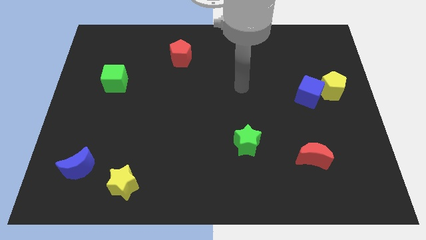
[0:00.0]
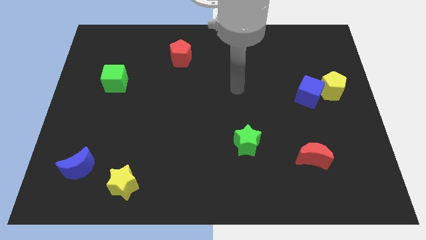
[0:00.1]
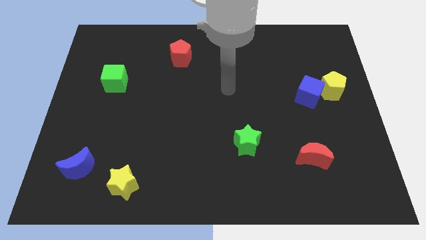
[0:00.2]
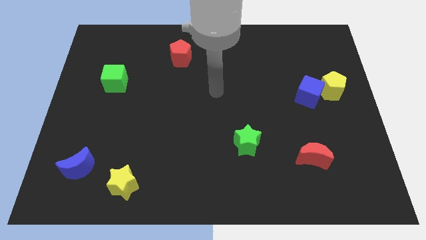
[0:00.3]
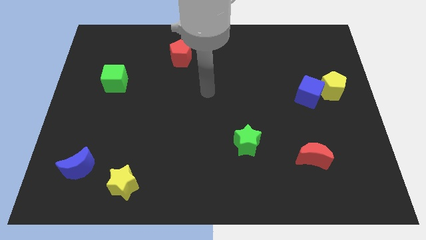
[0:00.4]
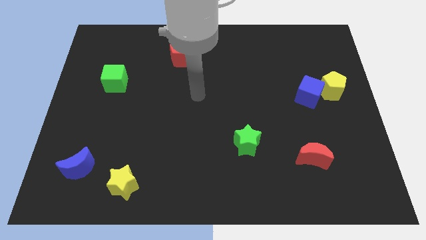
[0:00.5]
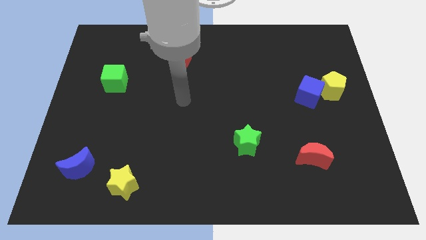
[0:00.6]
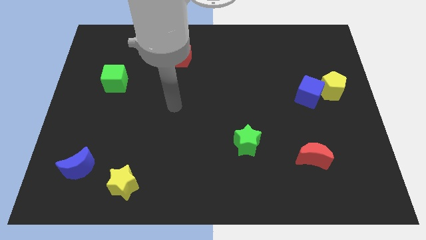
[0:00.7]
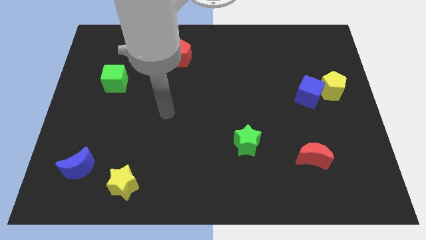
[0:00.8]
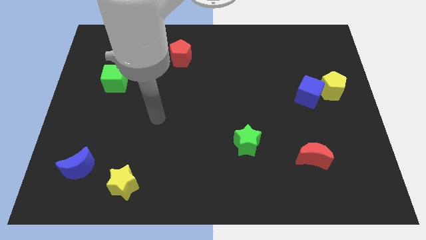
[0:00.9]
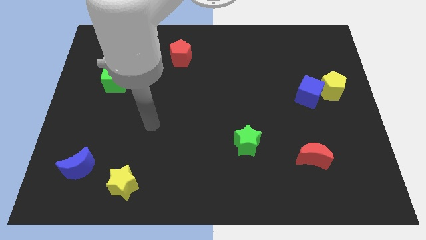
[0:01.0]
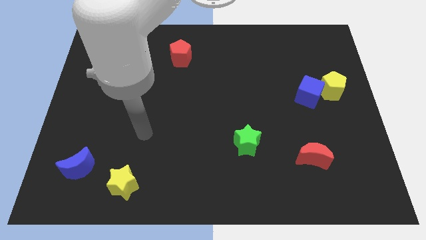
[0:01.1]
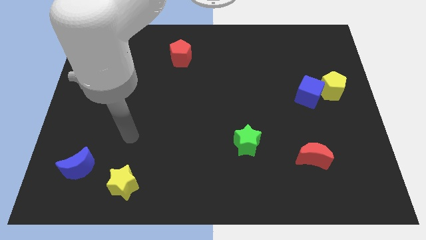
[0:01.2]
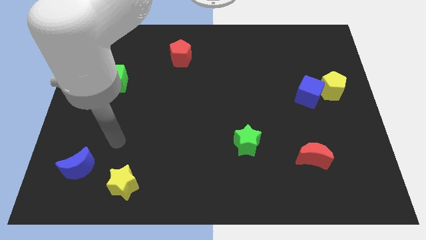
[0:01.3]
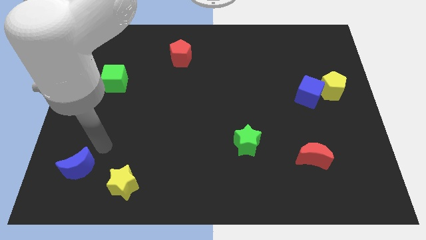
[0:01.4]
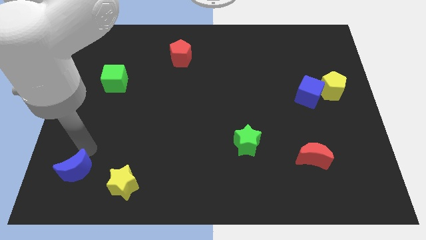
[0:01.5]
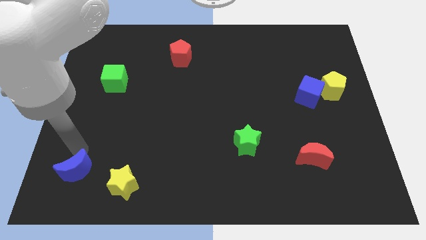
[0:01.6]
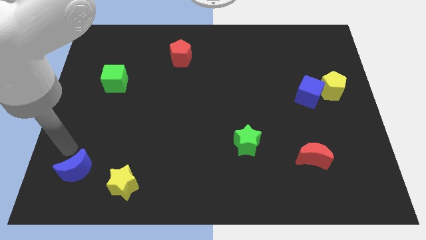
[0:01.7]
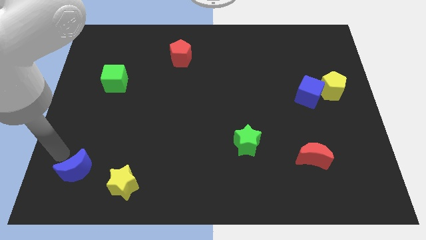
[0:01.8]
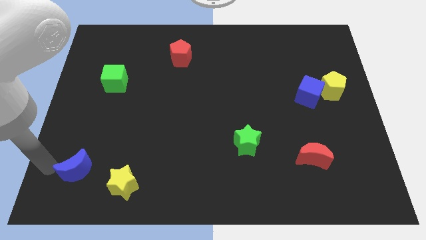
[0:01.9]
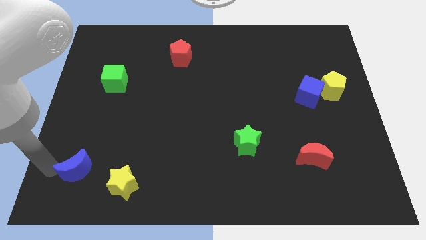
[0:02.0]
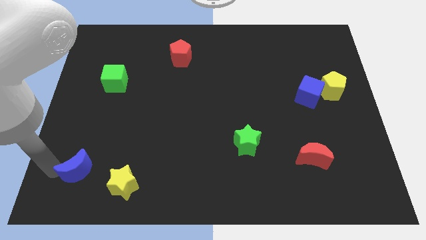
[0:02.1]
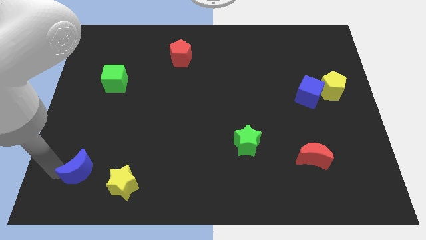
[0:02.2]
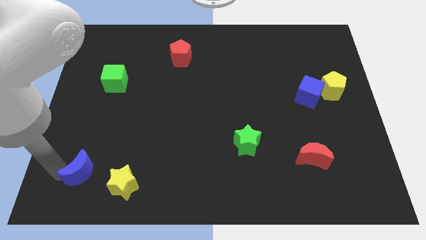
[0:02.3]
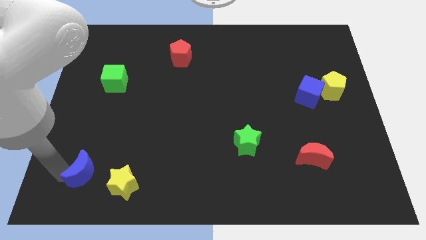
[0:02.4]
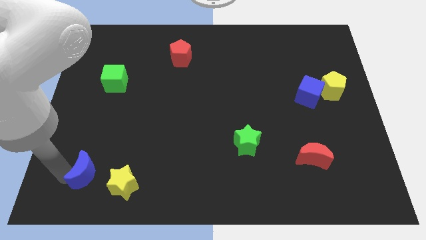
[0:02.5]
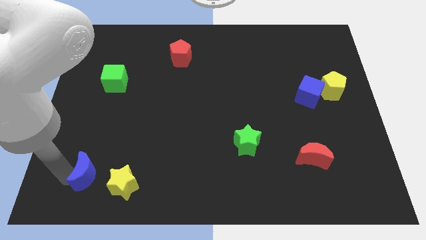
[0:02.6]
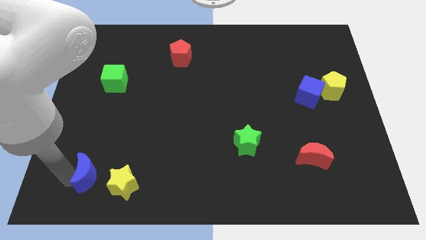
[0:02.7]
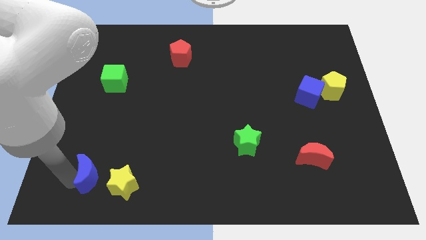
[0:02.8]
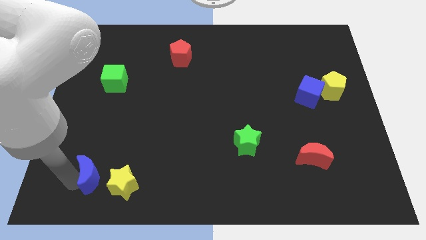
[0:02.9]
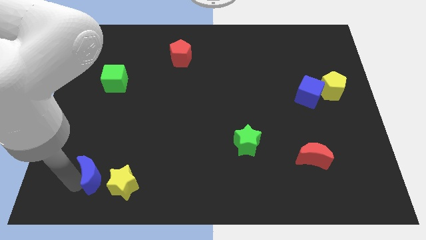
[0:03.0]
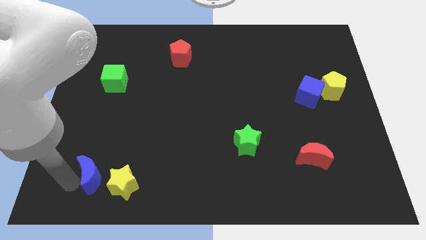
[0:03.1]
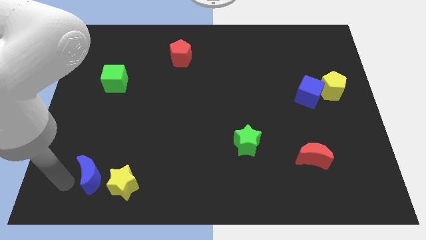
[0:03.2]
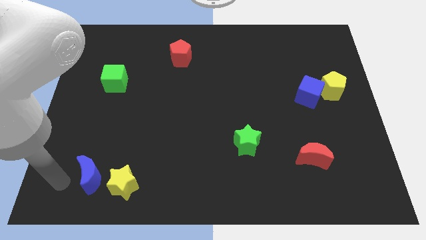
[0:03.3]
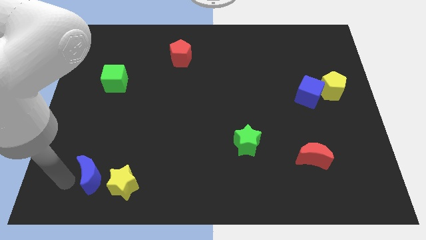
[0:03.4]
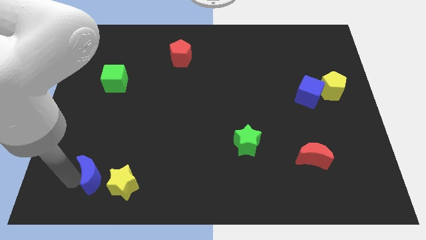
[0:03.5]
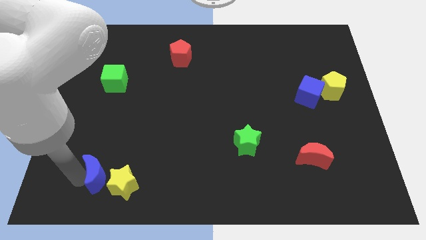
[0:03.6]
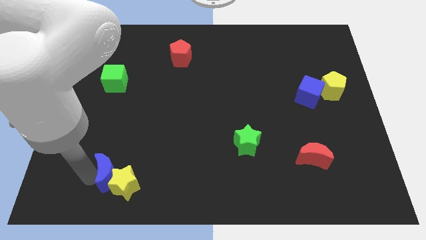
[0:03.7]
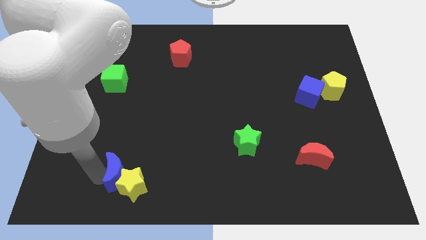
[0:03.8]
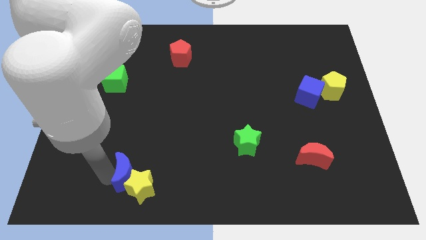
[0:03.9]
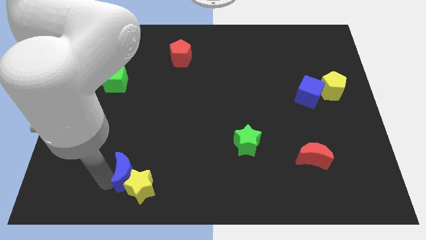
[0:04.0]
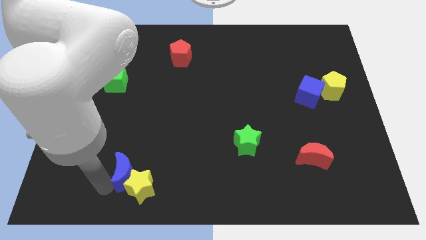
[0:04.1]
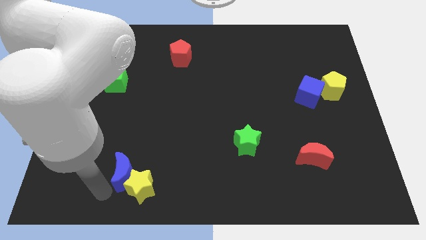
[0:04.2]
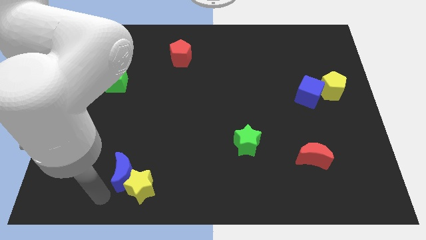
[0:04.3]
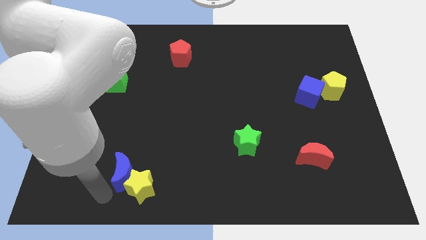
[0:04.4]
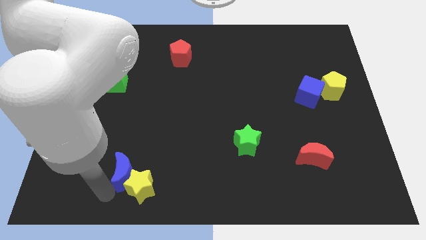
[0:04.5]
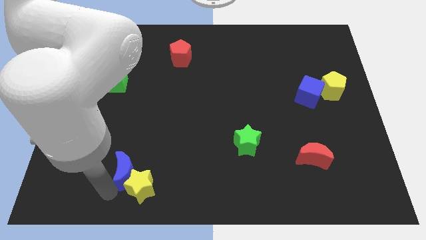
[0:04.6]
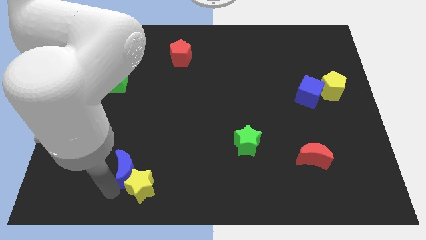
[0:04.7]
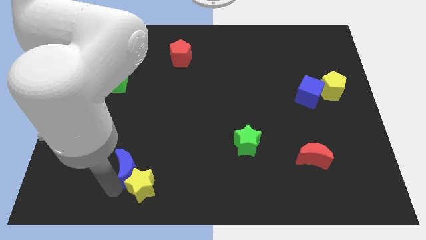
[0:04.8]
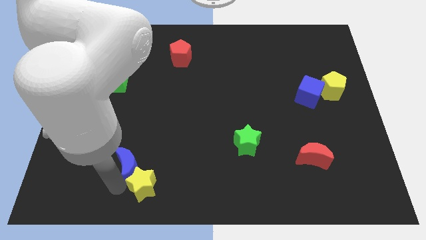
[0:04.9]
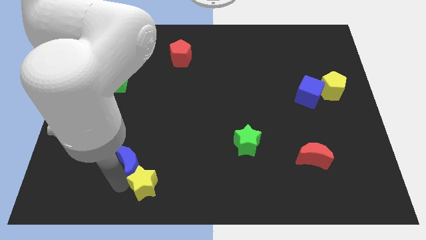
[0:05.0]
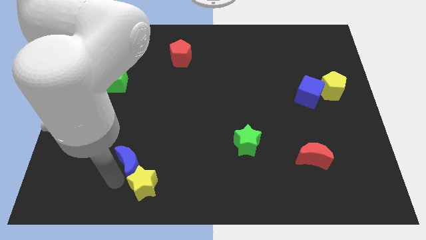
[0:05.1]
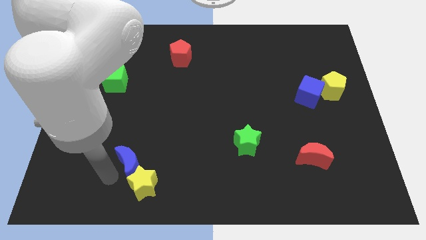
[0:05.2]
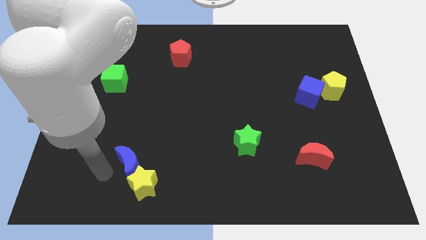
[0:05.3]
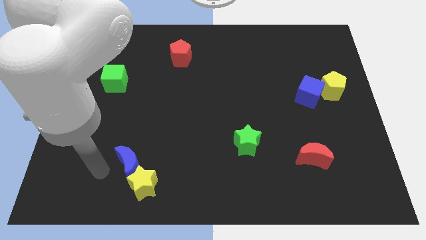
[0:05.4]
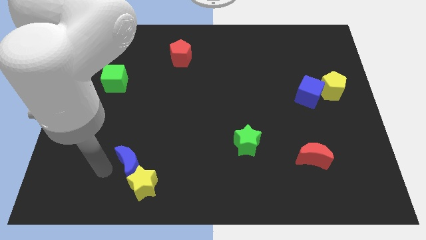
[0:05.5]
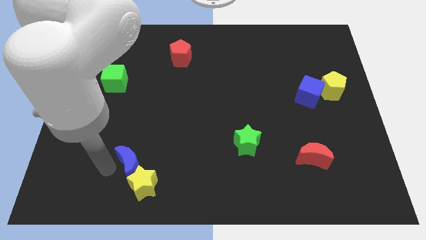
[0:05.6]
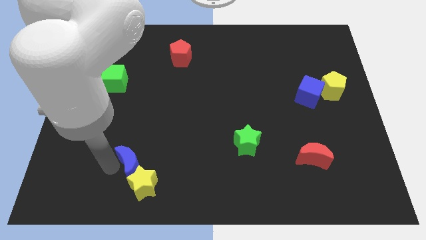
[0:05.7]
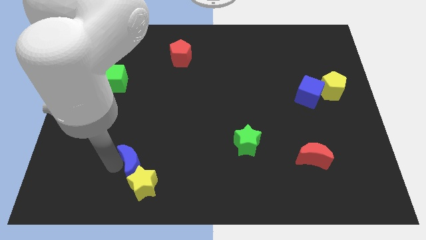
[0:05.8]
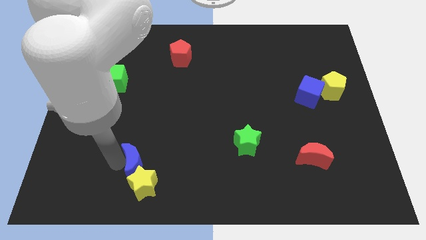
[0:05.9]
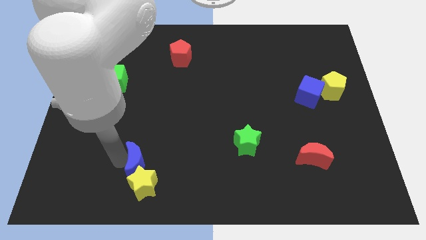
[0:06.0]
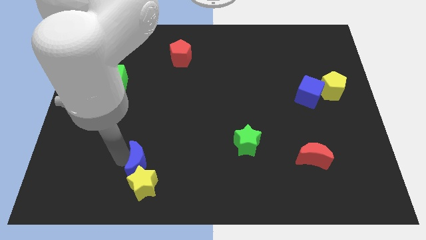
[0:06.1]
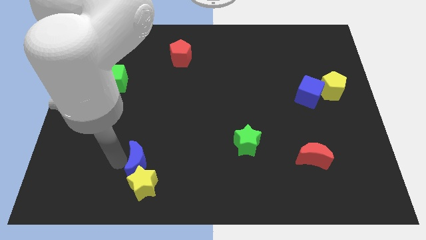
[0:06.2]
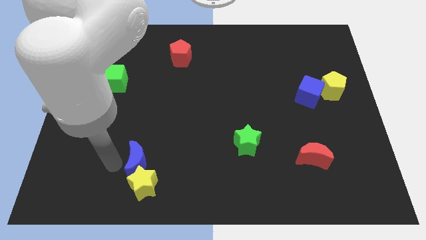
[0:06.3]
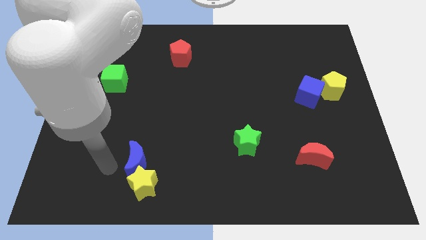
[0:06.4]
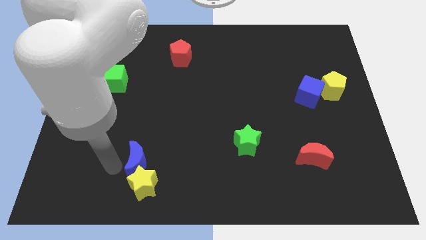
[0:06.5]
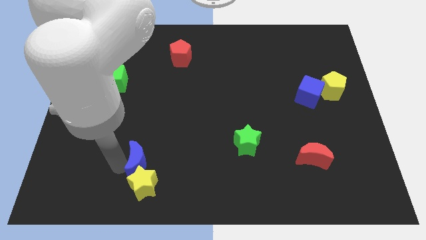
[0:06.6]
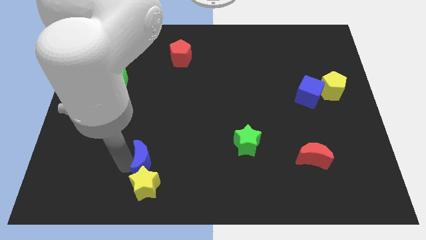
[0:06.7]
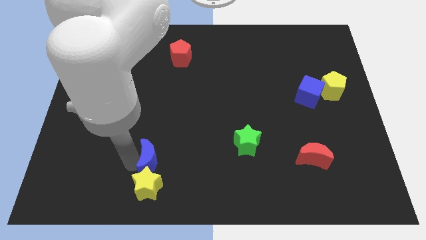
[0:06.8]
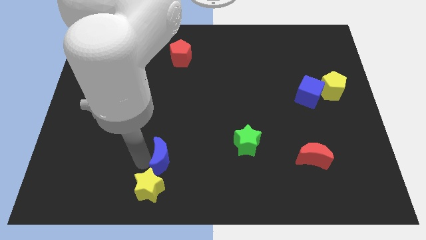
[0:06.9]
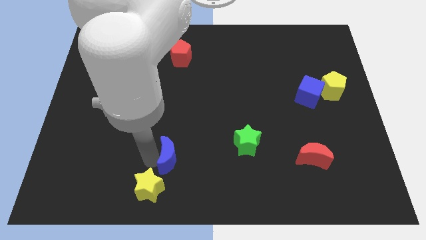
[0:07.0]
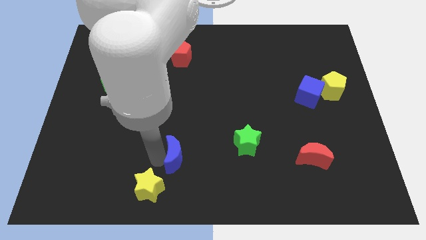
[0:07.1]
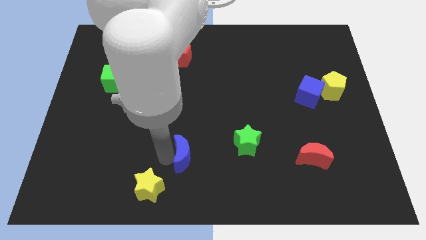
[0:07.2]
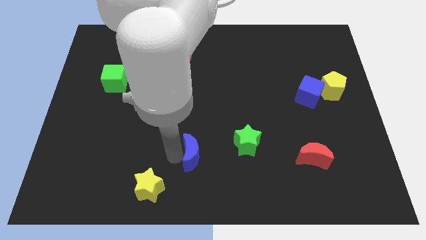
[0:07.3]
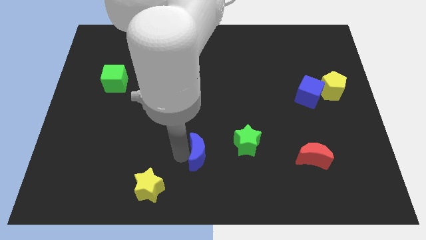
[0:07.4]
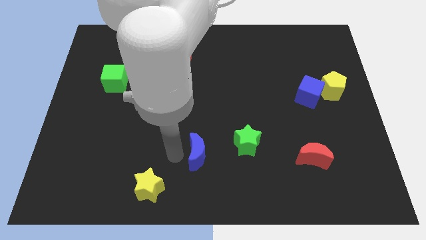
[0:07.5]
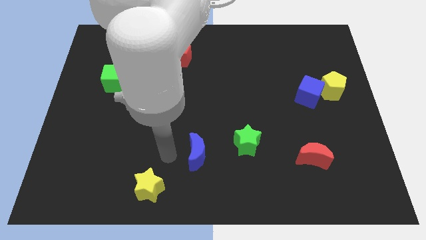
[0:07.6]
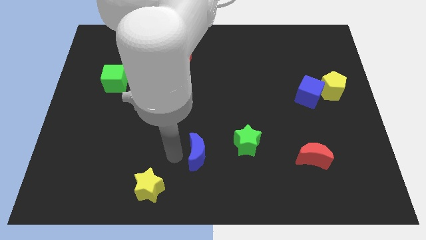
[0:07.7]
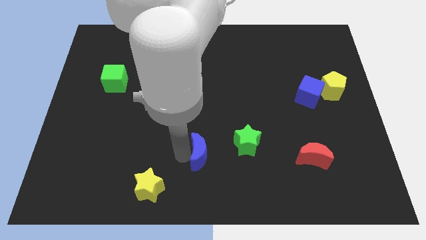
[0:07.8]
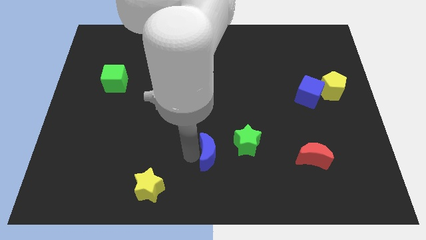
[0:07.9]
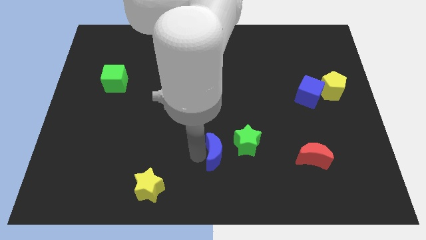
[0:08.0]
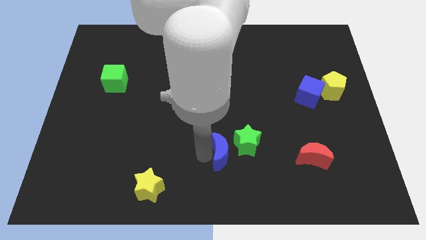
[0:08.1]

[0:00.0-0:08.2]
put the blue moon next to the green star
